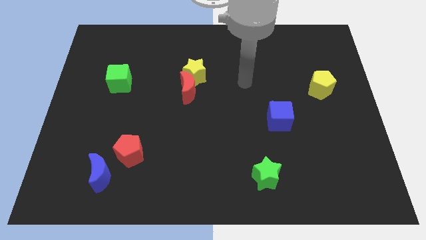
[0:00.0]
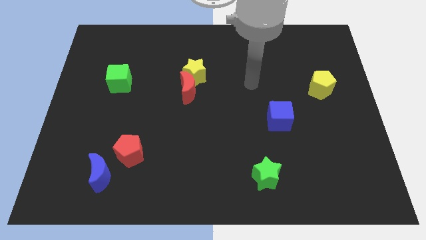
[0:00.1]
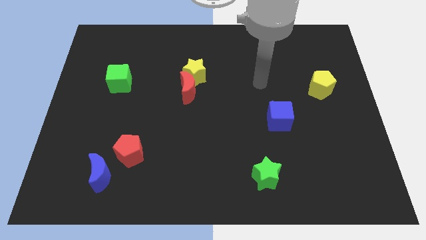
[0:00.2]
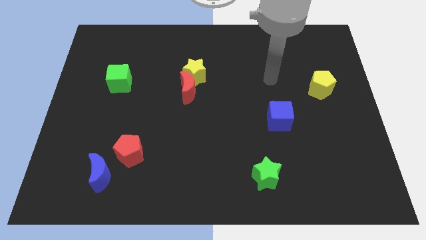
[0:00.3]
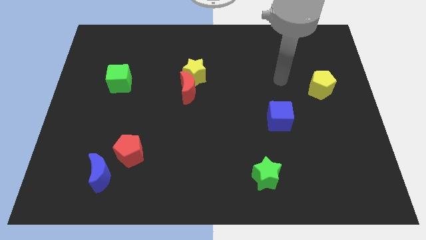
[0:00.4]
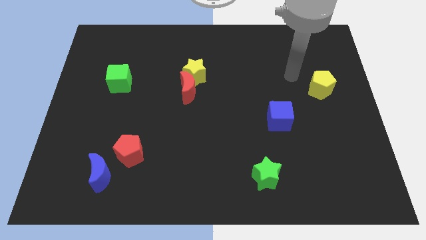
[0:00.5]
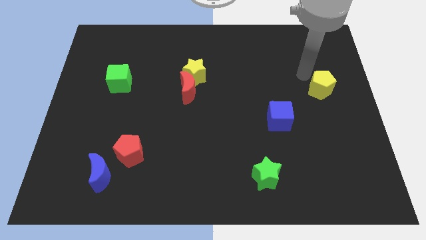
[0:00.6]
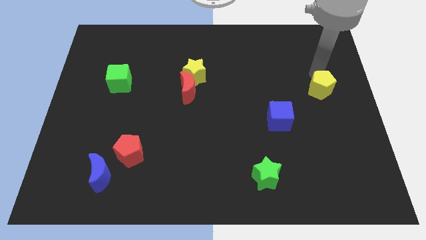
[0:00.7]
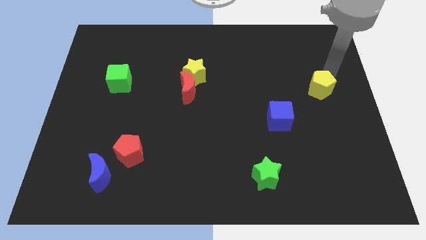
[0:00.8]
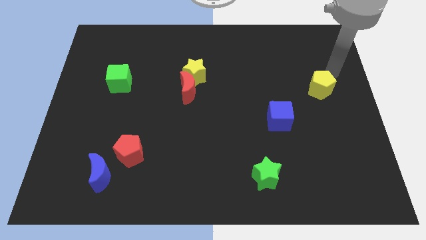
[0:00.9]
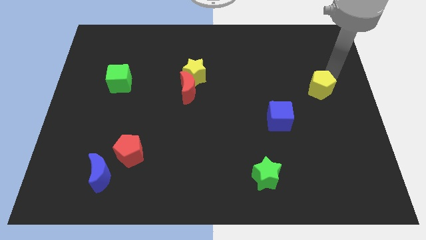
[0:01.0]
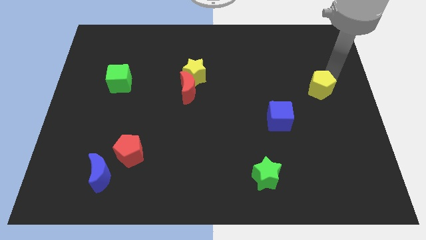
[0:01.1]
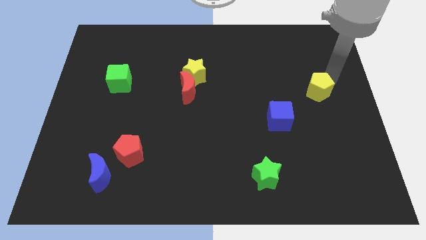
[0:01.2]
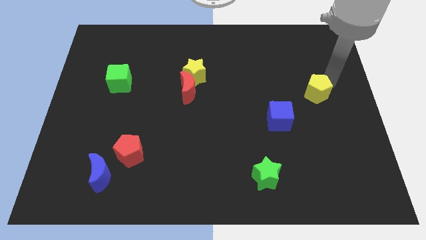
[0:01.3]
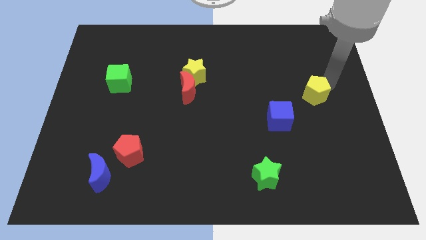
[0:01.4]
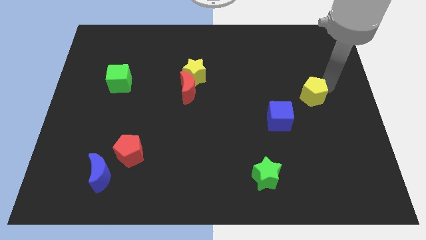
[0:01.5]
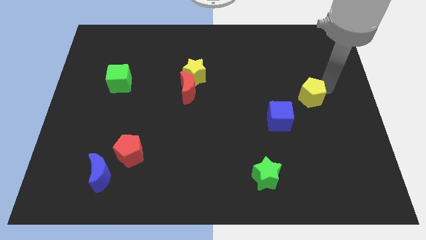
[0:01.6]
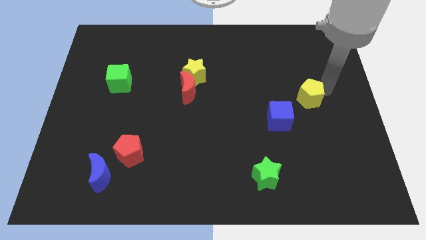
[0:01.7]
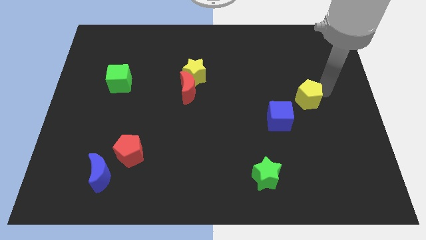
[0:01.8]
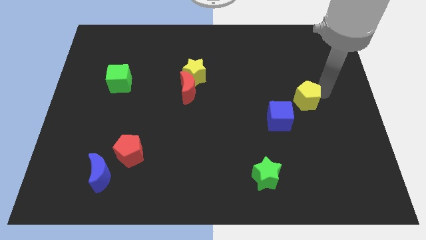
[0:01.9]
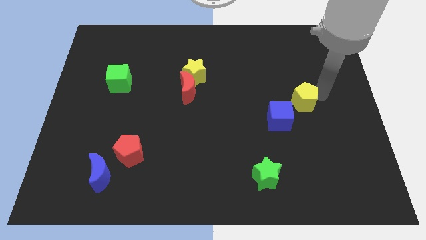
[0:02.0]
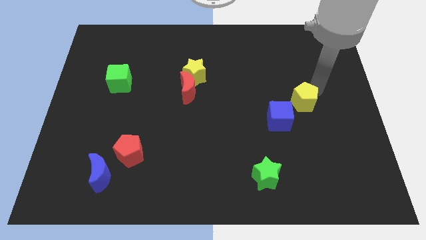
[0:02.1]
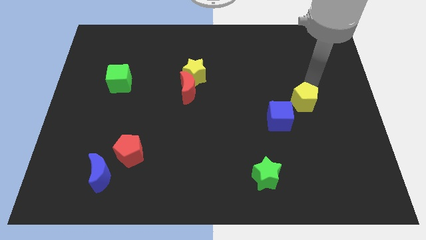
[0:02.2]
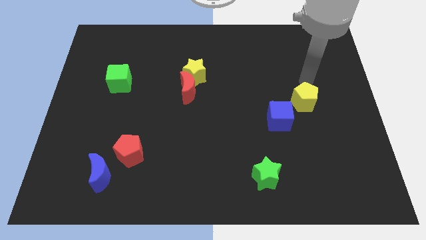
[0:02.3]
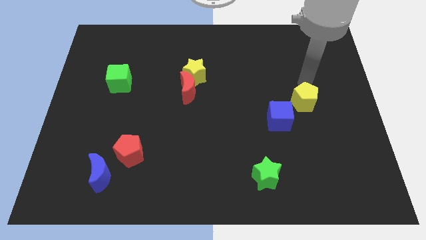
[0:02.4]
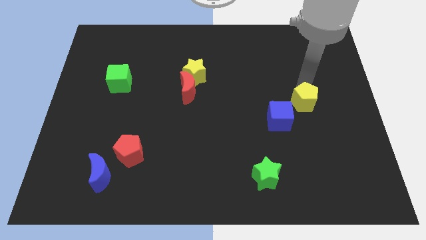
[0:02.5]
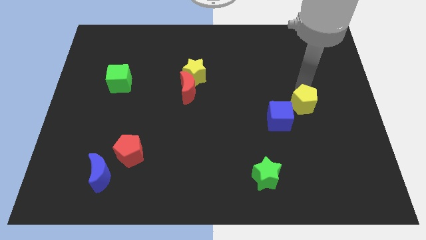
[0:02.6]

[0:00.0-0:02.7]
slightly move the yellow pentagon down and left diagonally

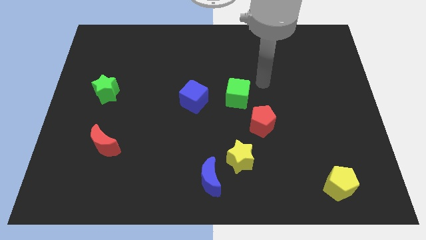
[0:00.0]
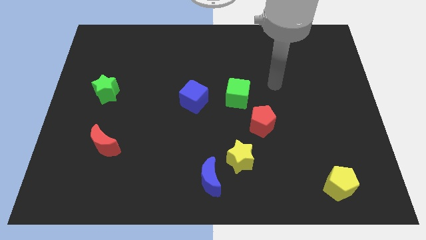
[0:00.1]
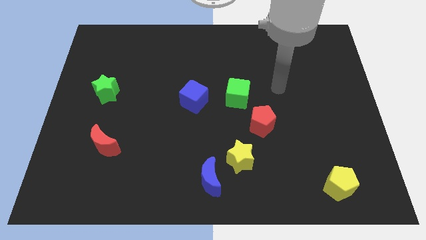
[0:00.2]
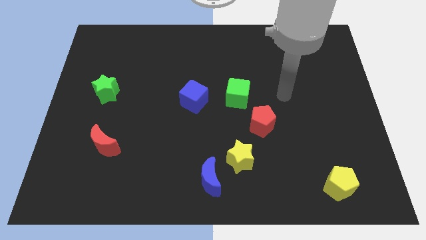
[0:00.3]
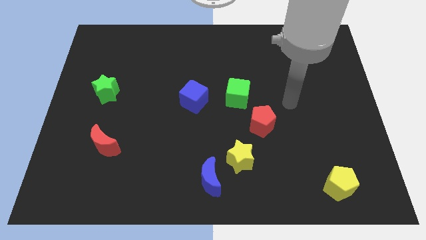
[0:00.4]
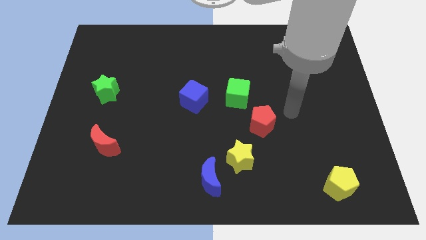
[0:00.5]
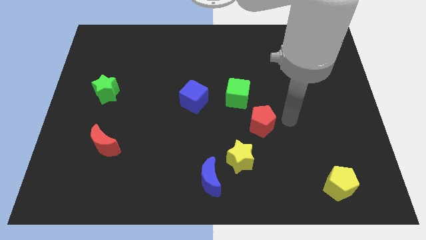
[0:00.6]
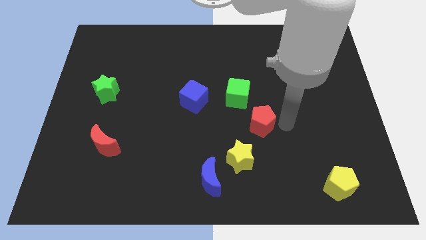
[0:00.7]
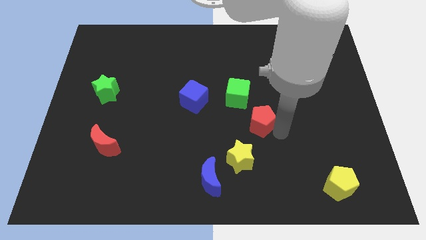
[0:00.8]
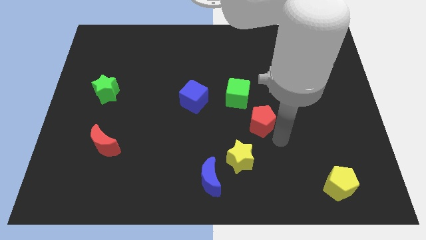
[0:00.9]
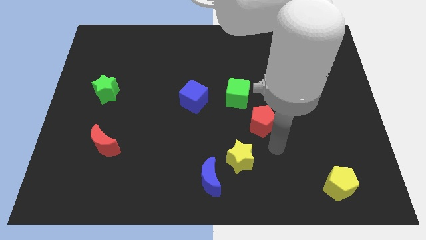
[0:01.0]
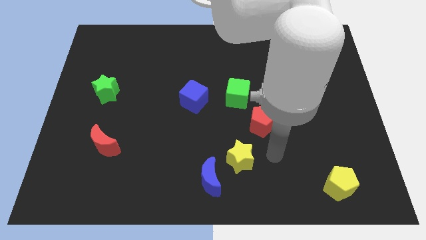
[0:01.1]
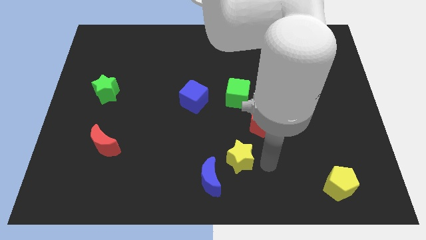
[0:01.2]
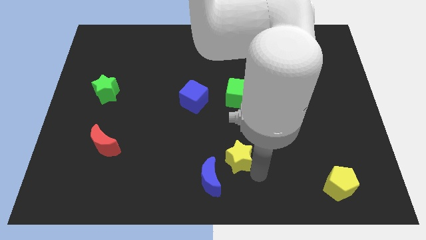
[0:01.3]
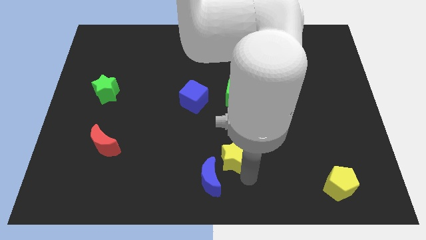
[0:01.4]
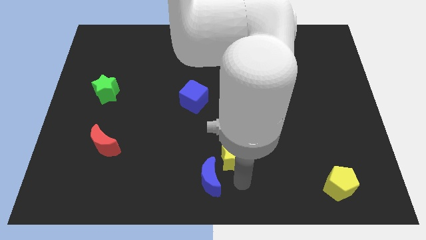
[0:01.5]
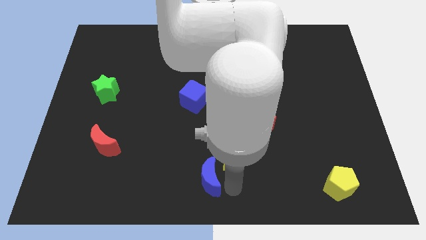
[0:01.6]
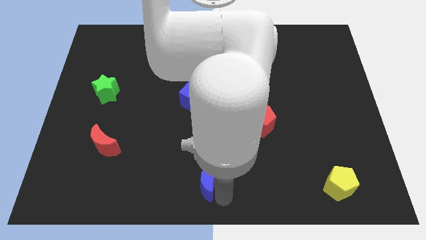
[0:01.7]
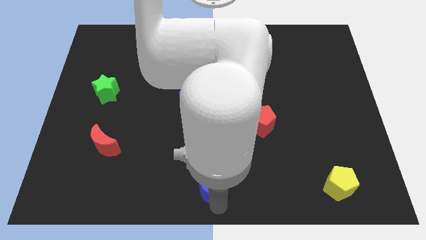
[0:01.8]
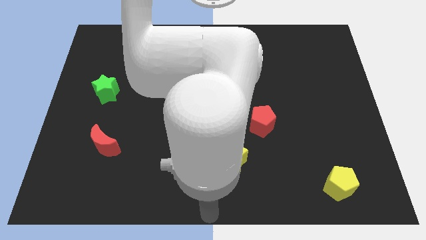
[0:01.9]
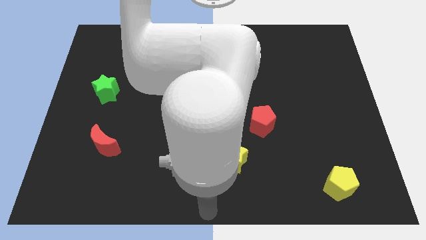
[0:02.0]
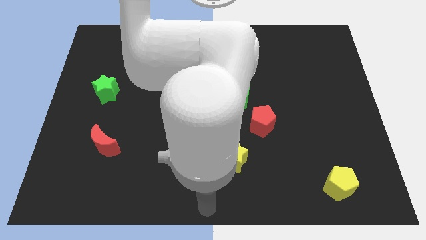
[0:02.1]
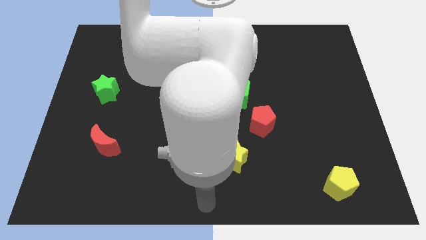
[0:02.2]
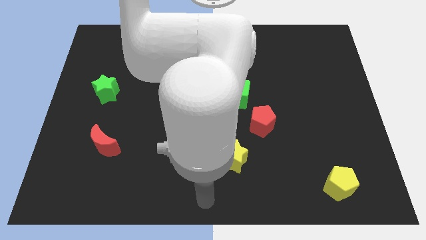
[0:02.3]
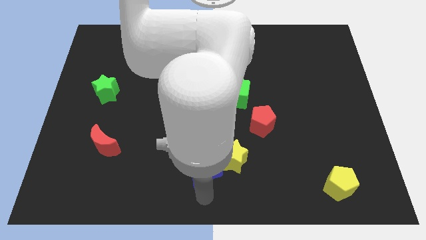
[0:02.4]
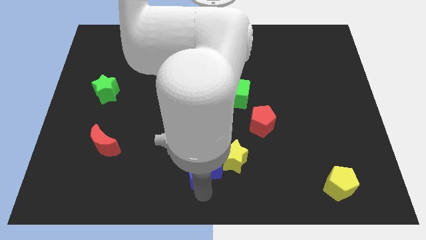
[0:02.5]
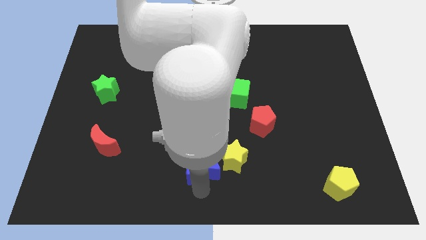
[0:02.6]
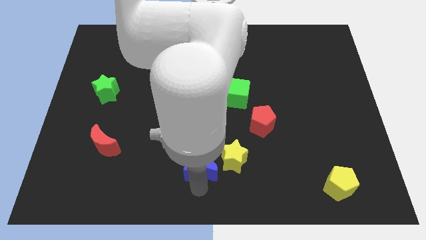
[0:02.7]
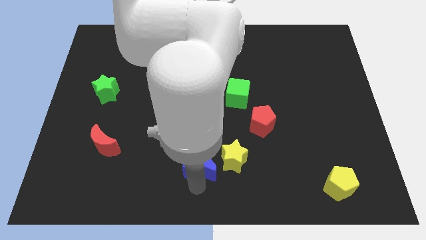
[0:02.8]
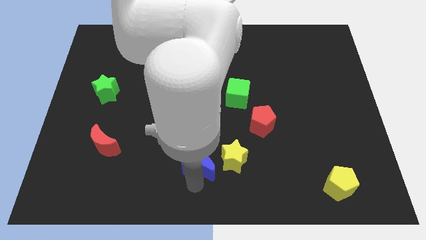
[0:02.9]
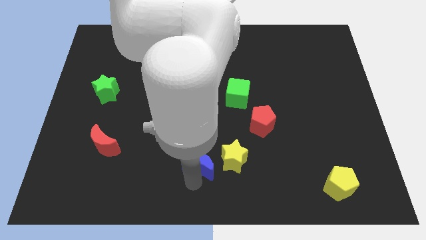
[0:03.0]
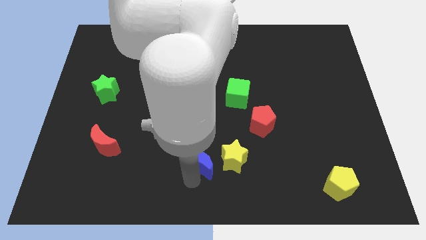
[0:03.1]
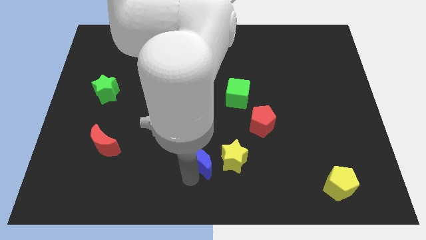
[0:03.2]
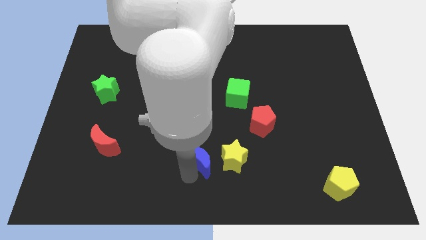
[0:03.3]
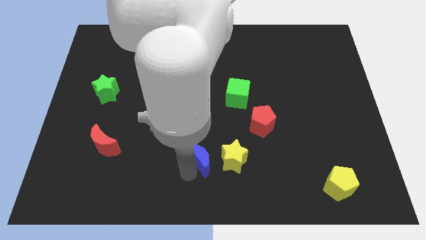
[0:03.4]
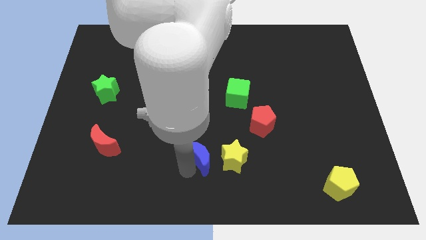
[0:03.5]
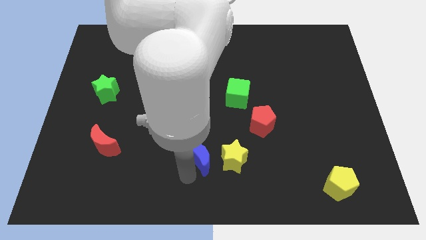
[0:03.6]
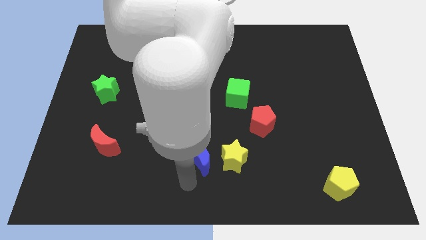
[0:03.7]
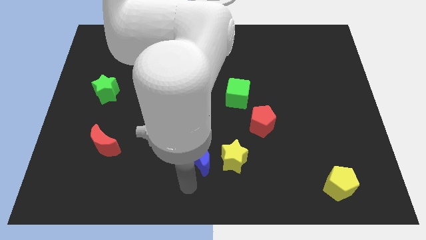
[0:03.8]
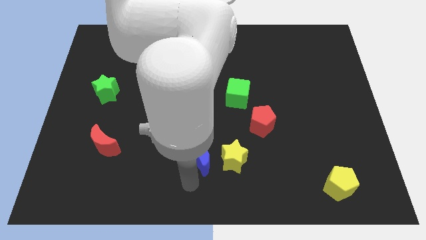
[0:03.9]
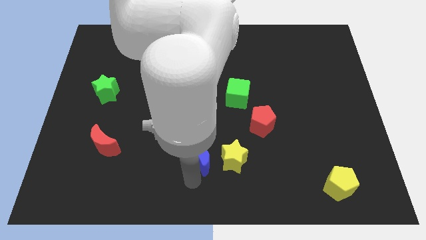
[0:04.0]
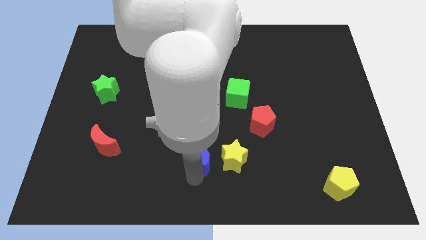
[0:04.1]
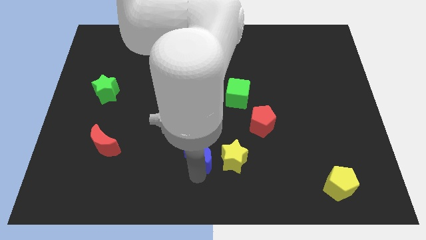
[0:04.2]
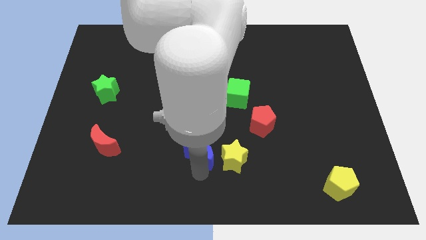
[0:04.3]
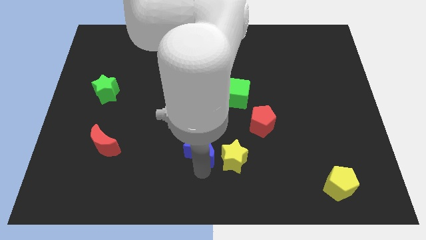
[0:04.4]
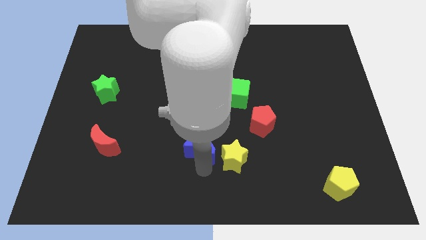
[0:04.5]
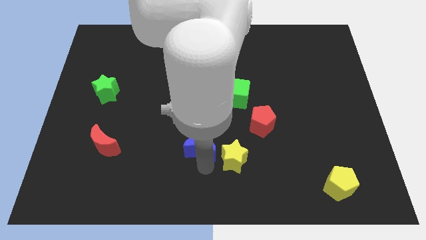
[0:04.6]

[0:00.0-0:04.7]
slightly move the blue moon up

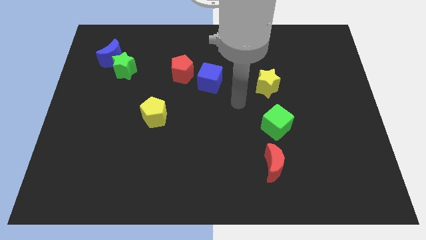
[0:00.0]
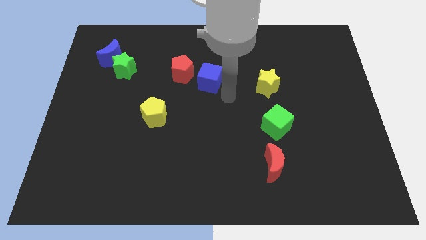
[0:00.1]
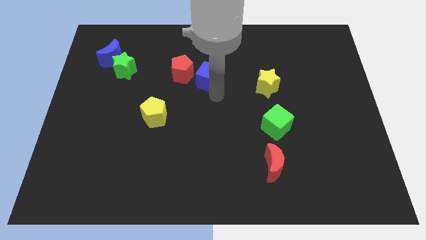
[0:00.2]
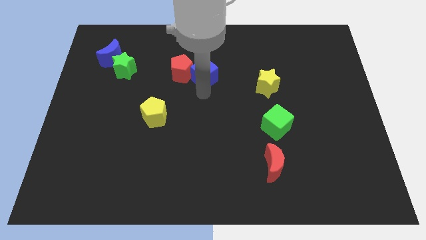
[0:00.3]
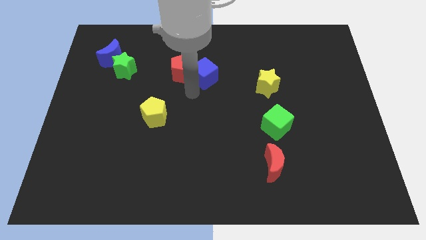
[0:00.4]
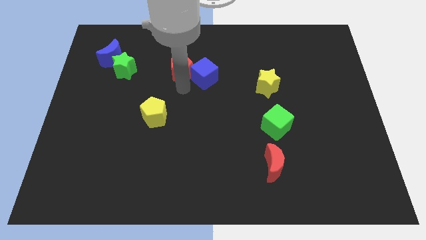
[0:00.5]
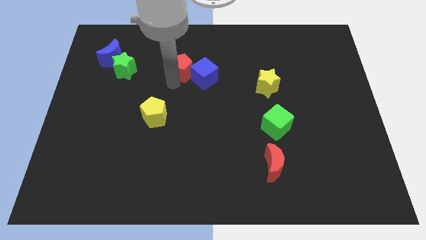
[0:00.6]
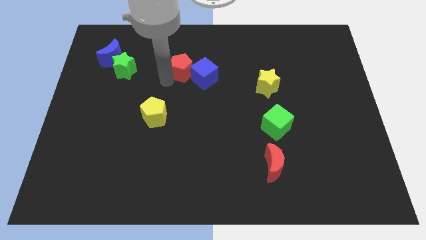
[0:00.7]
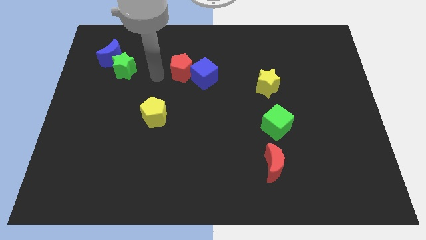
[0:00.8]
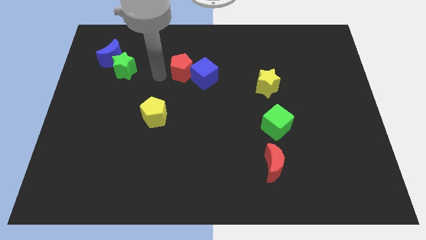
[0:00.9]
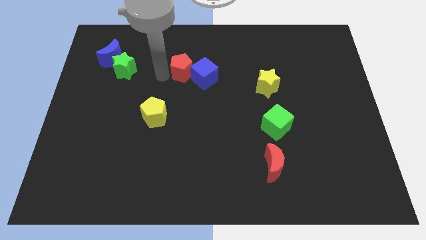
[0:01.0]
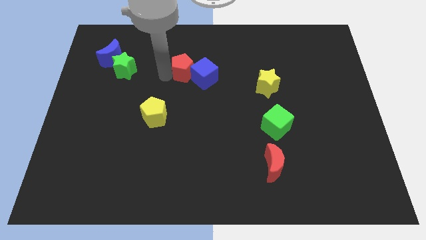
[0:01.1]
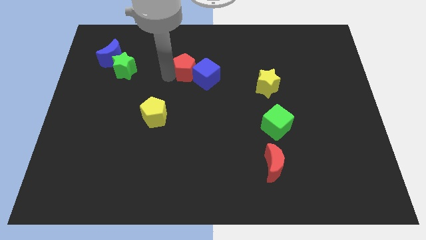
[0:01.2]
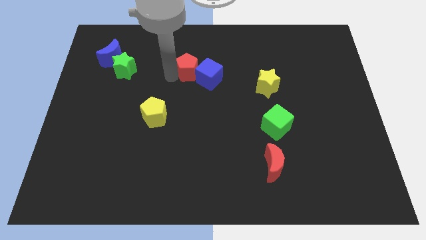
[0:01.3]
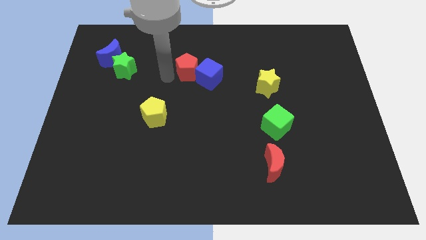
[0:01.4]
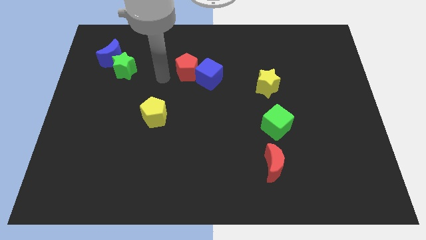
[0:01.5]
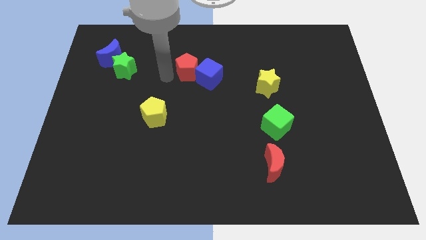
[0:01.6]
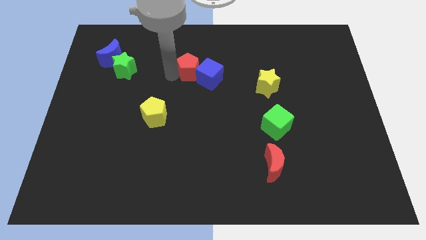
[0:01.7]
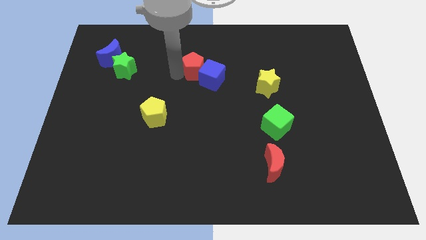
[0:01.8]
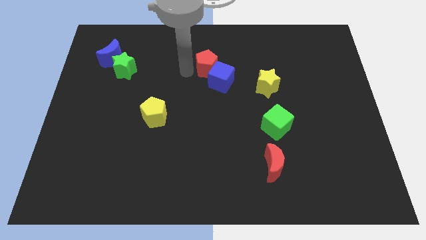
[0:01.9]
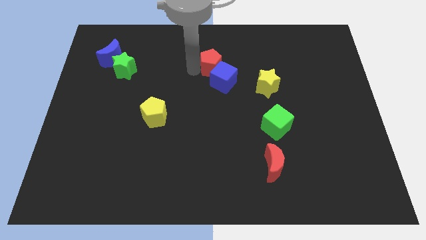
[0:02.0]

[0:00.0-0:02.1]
slightly slide the red pentagon right
